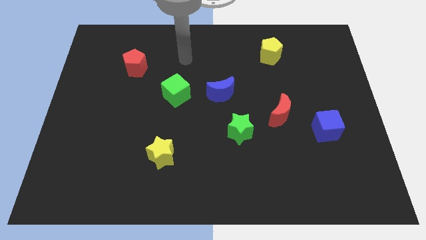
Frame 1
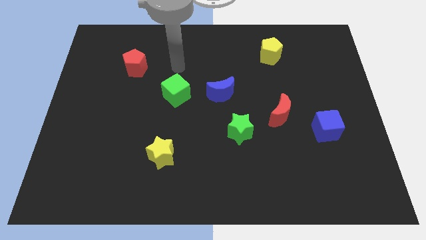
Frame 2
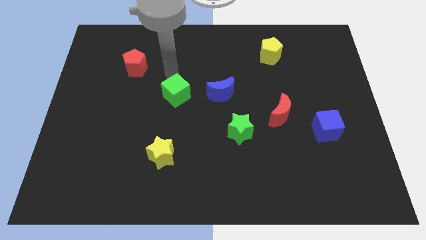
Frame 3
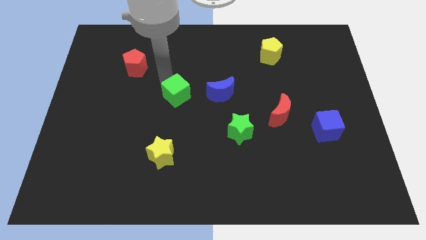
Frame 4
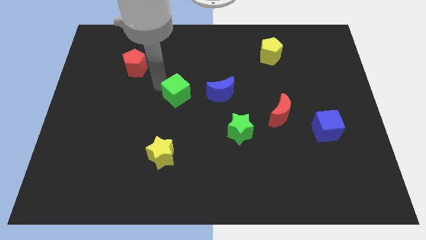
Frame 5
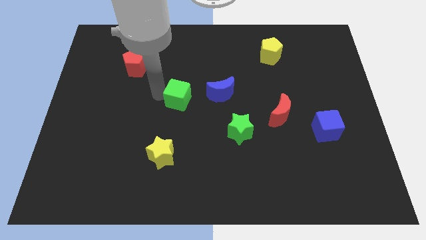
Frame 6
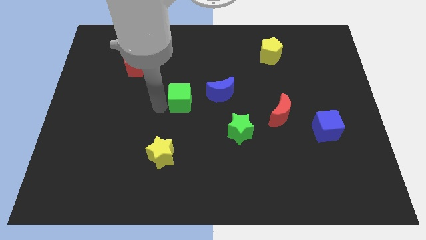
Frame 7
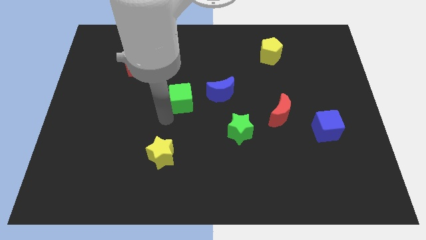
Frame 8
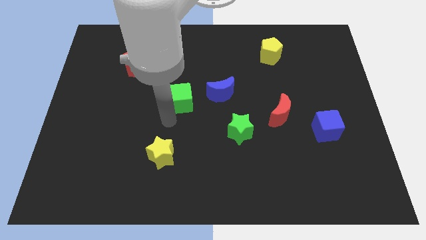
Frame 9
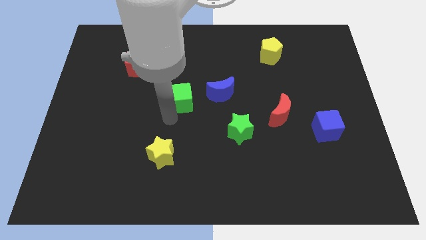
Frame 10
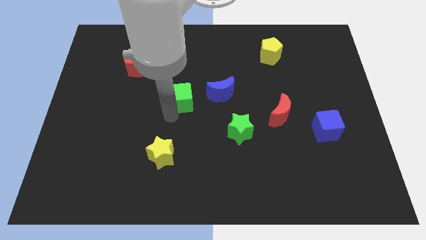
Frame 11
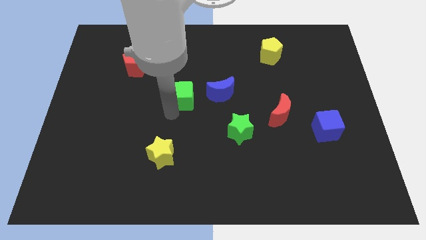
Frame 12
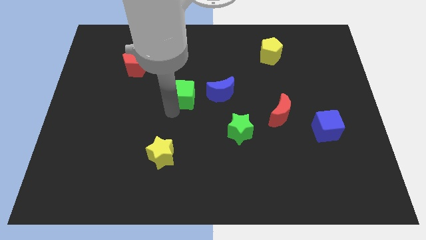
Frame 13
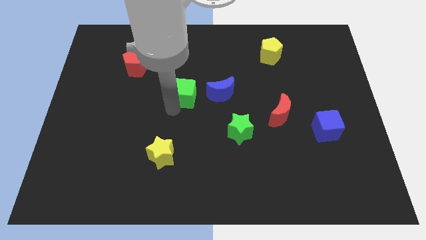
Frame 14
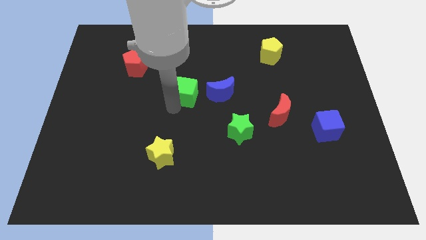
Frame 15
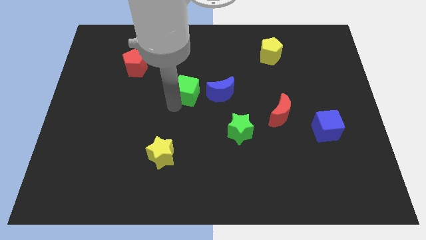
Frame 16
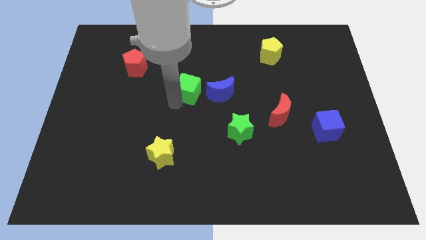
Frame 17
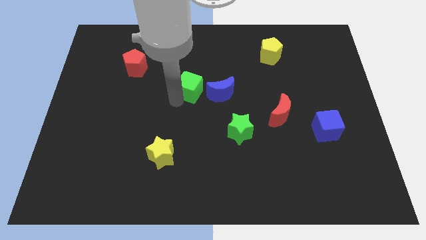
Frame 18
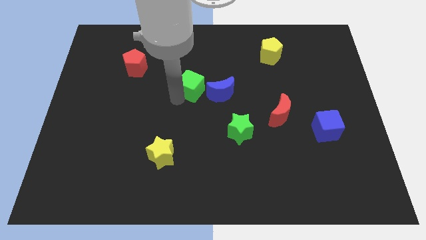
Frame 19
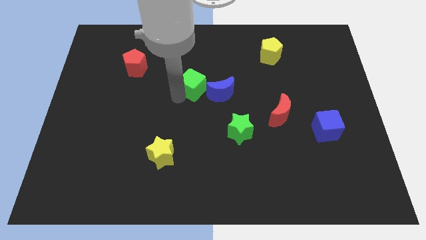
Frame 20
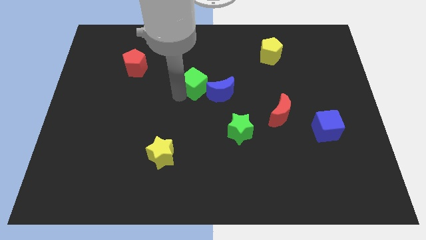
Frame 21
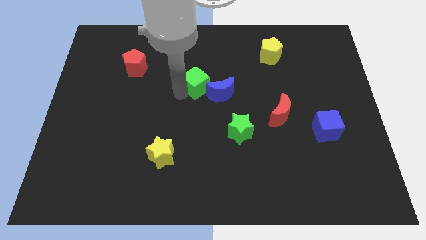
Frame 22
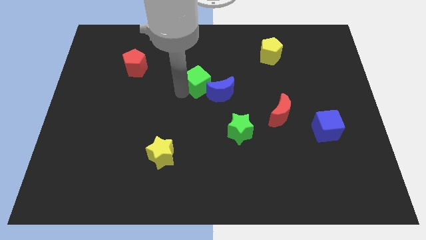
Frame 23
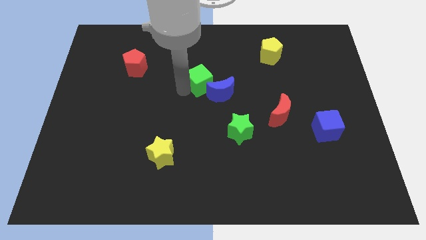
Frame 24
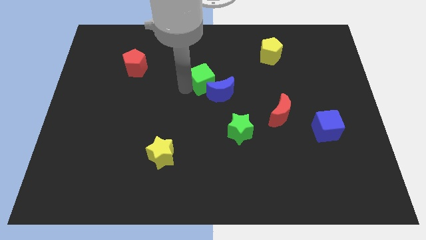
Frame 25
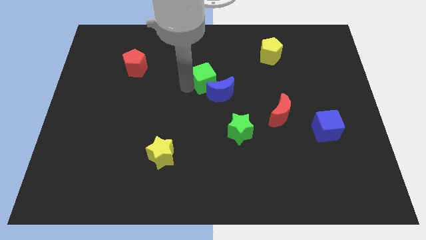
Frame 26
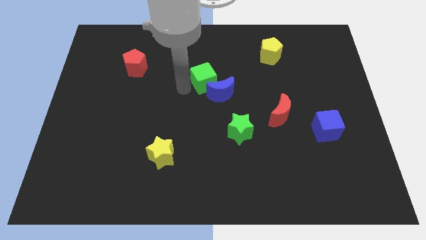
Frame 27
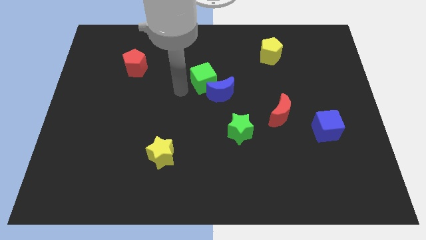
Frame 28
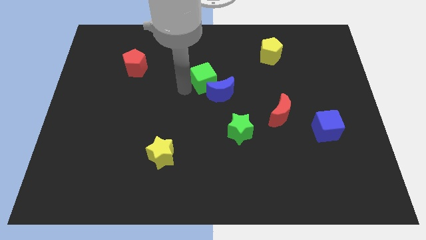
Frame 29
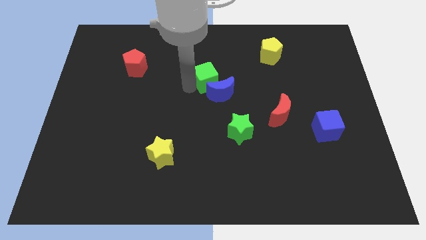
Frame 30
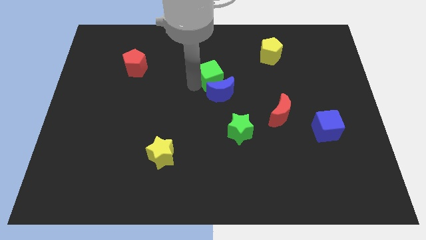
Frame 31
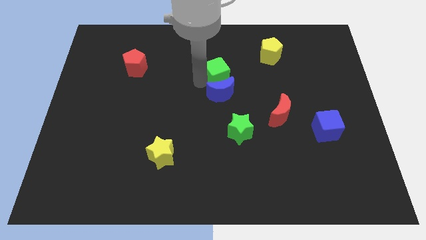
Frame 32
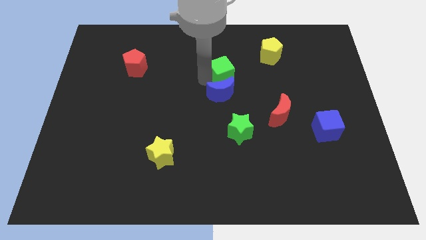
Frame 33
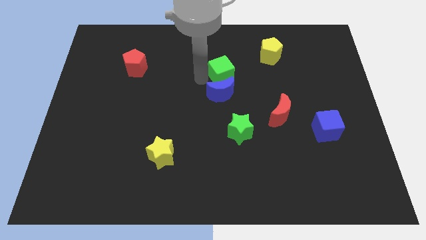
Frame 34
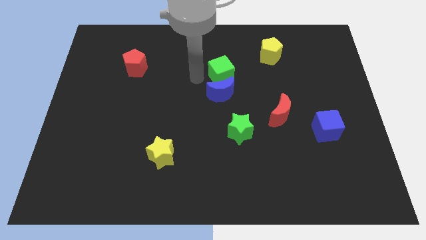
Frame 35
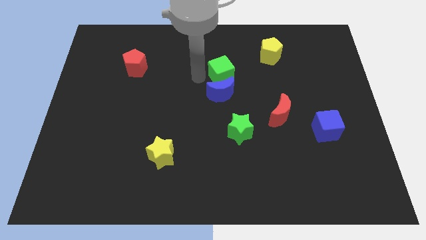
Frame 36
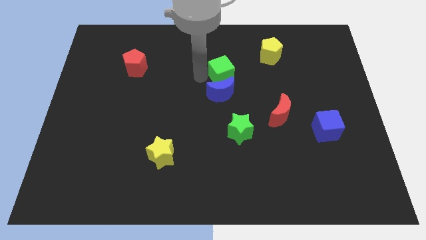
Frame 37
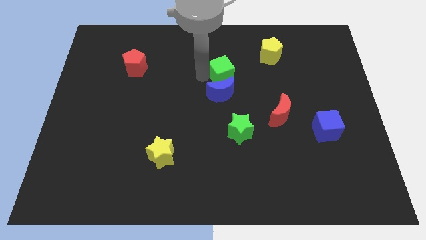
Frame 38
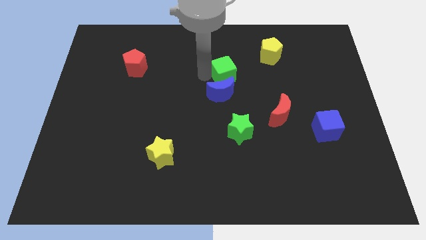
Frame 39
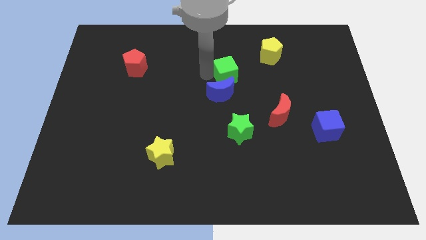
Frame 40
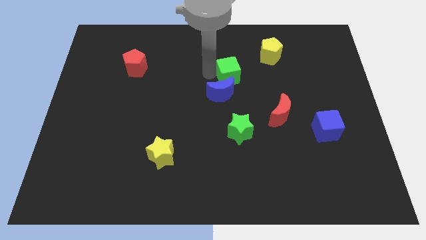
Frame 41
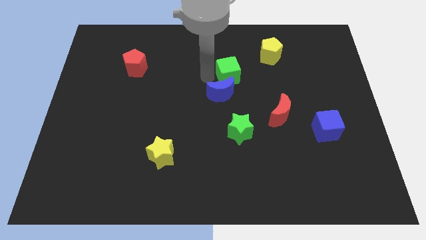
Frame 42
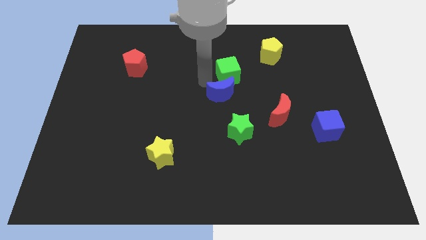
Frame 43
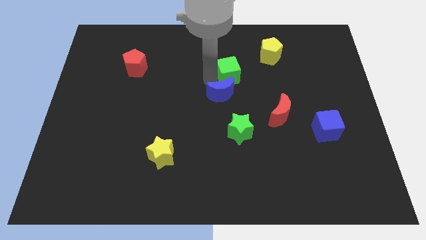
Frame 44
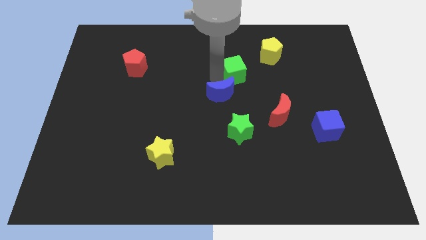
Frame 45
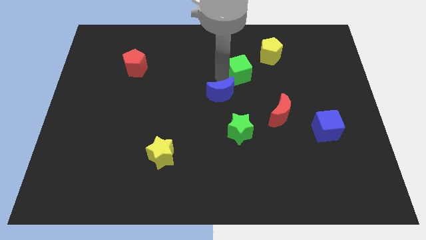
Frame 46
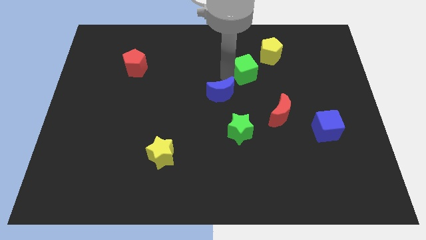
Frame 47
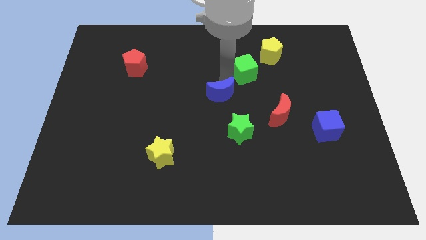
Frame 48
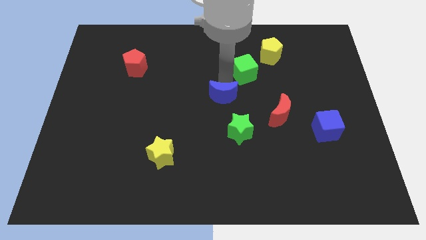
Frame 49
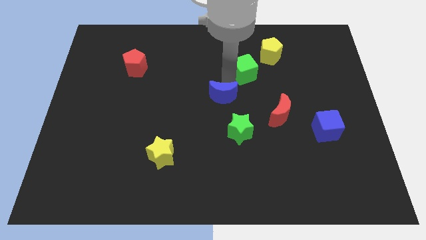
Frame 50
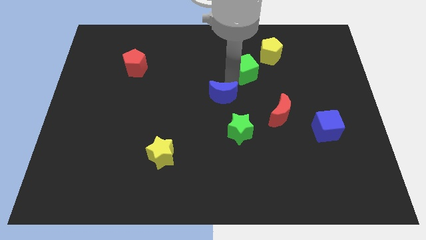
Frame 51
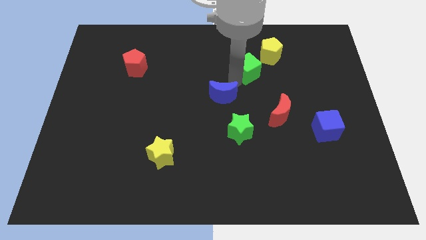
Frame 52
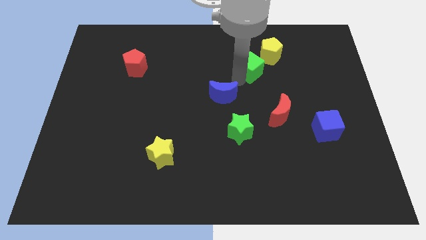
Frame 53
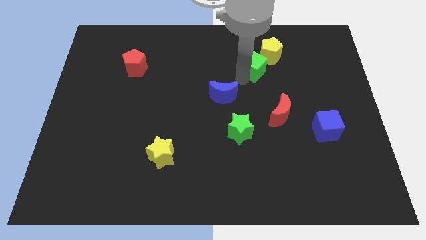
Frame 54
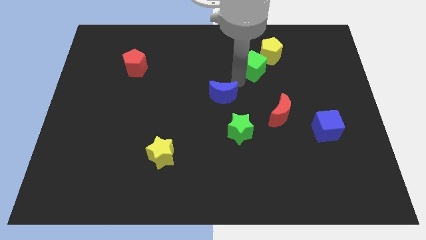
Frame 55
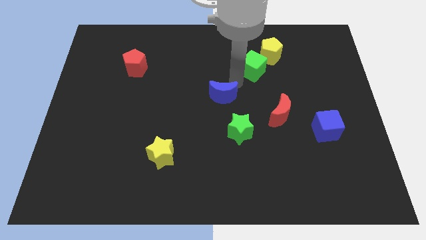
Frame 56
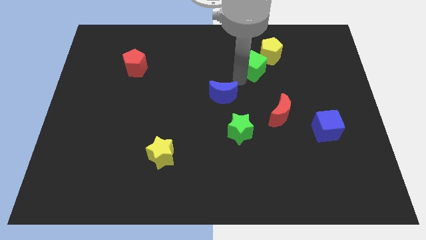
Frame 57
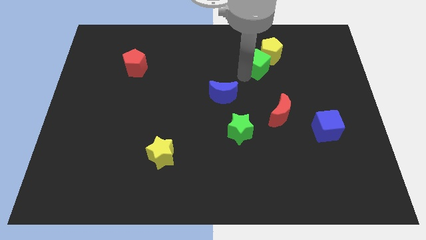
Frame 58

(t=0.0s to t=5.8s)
put the green cube next to the yellow pentagon

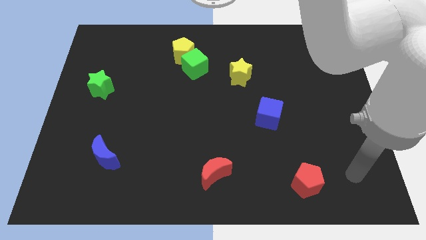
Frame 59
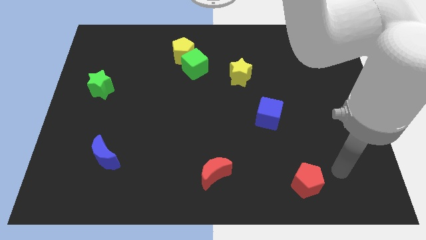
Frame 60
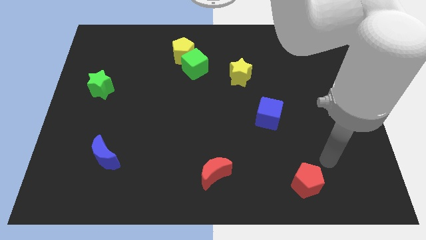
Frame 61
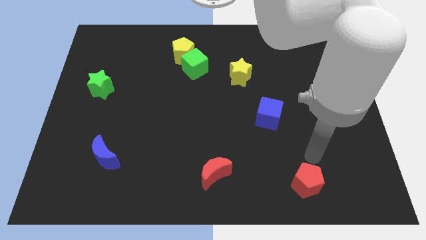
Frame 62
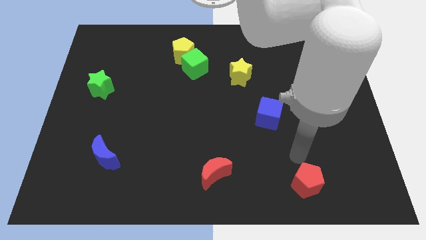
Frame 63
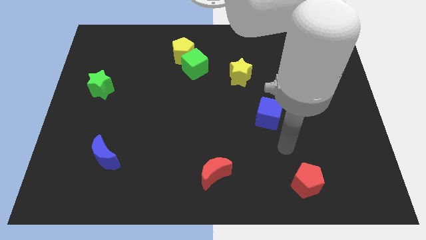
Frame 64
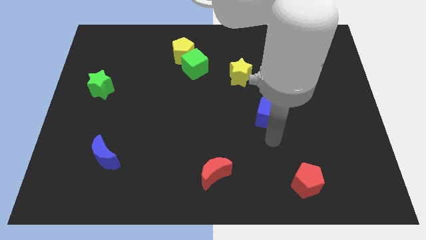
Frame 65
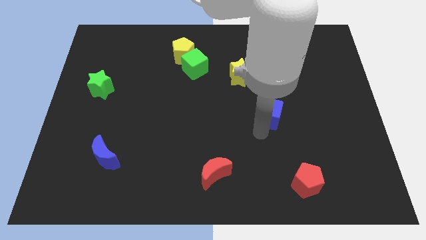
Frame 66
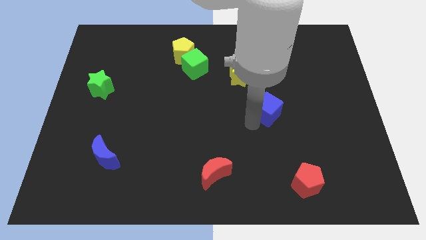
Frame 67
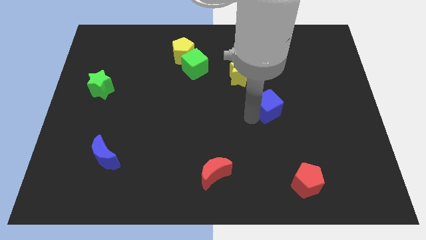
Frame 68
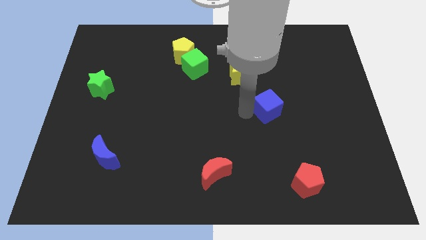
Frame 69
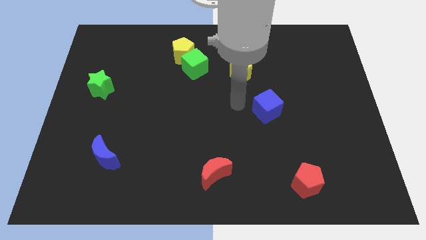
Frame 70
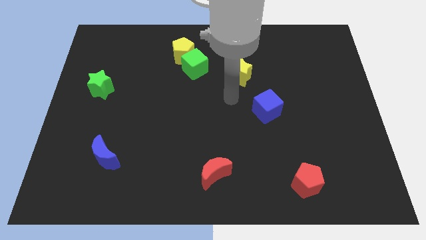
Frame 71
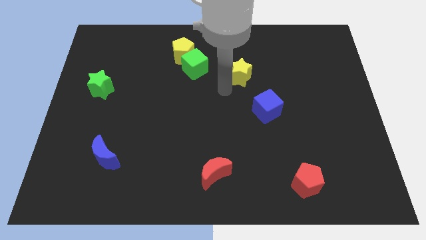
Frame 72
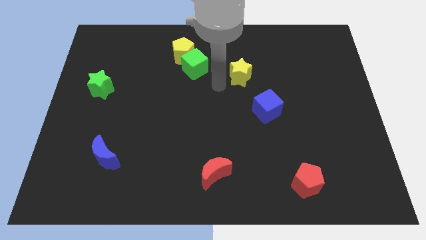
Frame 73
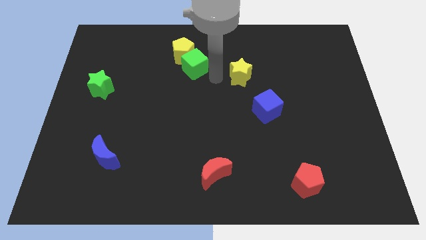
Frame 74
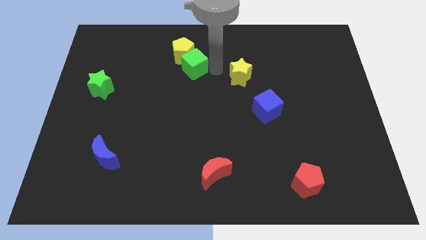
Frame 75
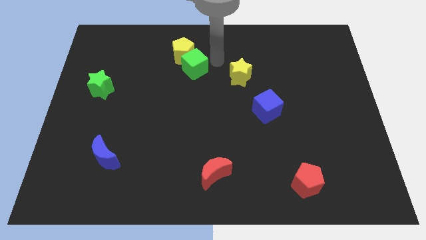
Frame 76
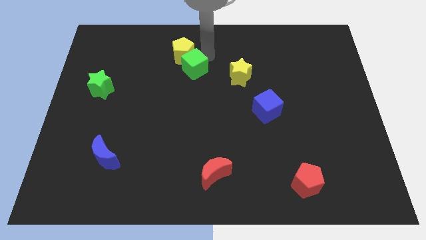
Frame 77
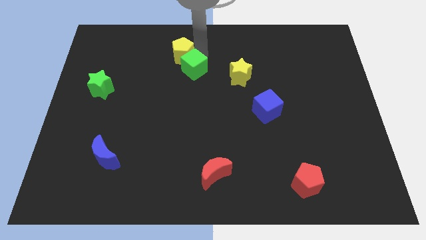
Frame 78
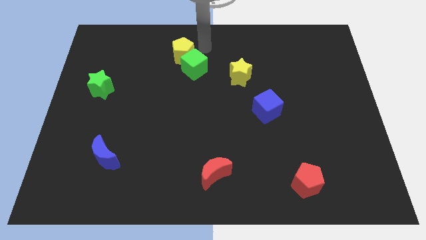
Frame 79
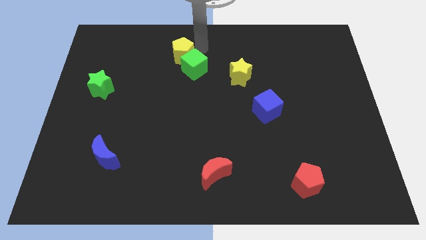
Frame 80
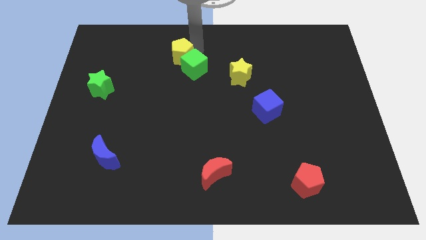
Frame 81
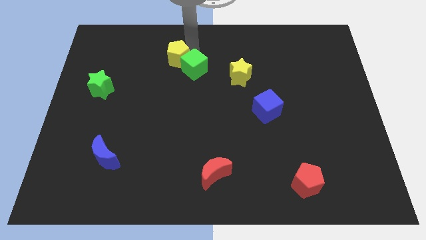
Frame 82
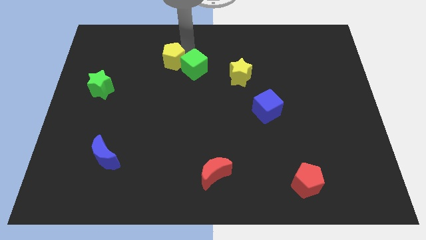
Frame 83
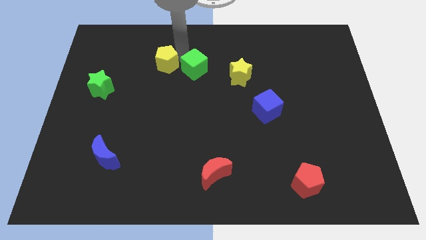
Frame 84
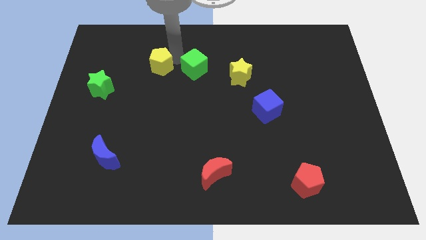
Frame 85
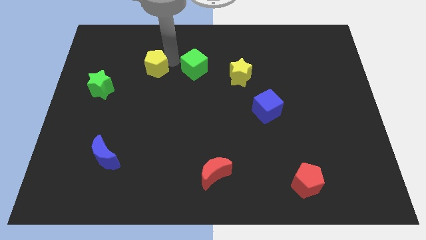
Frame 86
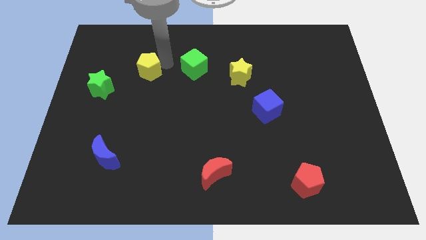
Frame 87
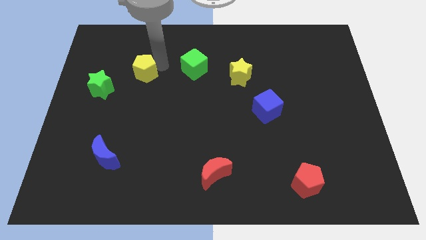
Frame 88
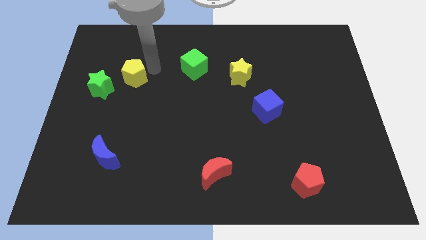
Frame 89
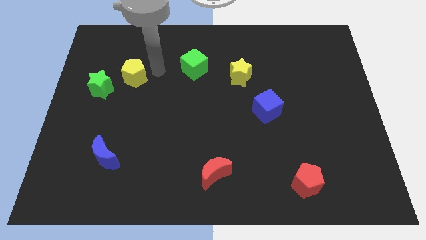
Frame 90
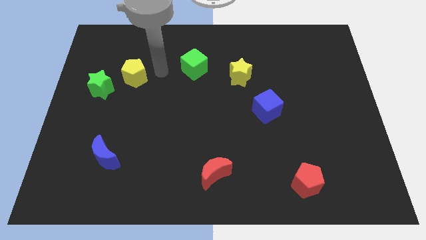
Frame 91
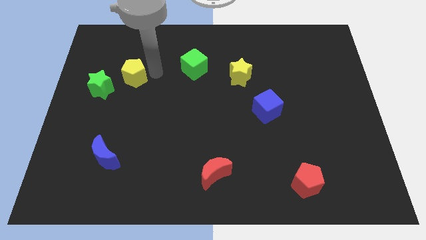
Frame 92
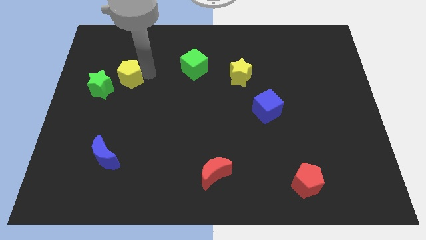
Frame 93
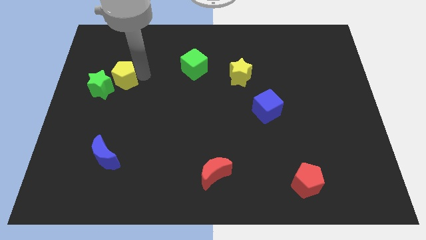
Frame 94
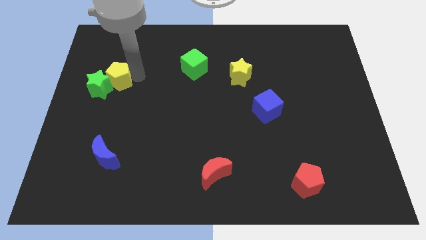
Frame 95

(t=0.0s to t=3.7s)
slide the yellow pentagon to the green star
